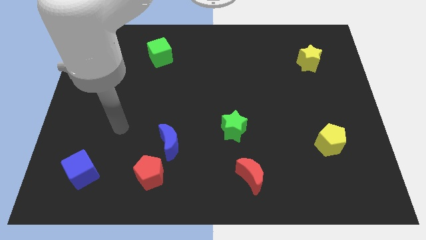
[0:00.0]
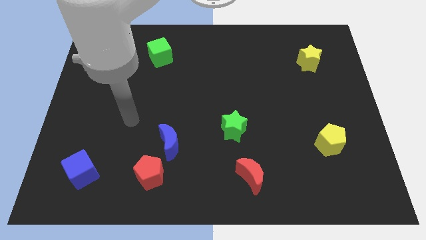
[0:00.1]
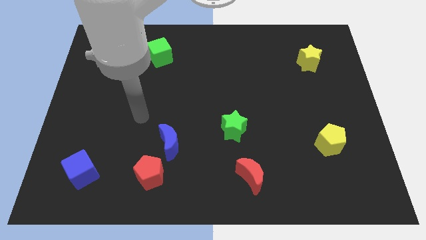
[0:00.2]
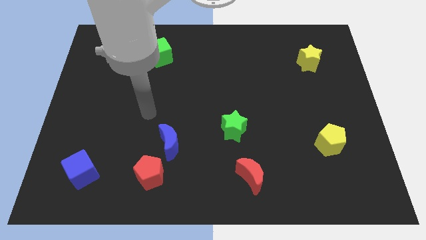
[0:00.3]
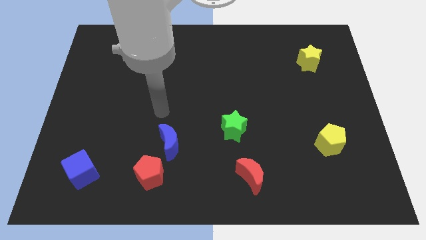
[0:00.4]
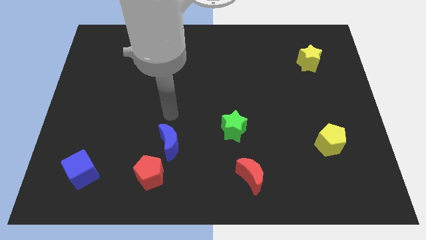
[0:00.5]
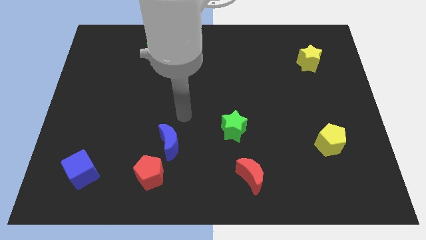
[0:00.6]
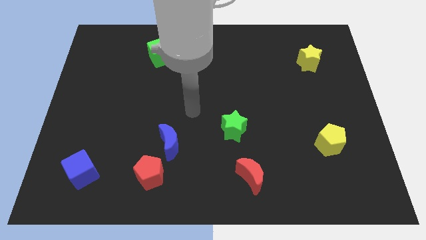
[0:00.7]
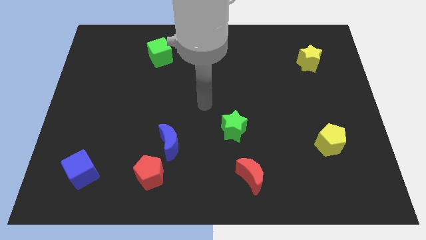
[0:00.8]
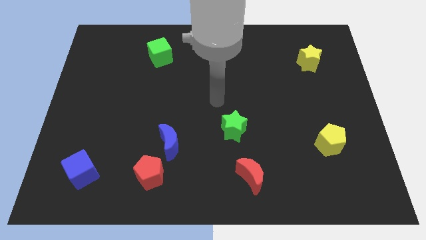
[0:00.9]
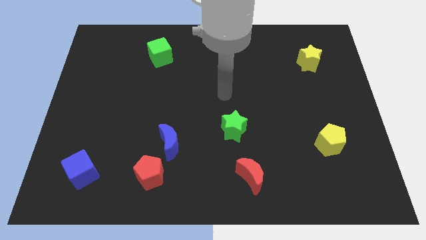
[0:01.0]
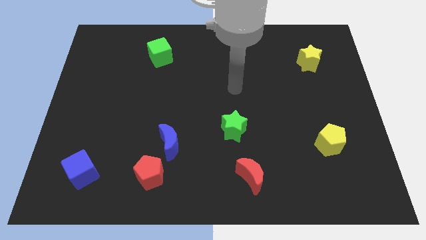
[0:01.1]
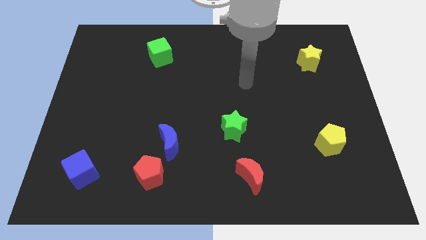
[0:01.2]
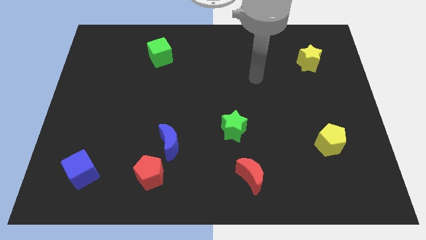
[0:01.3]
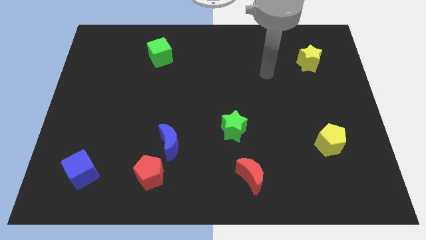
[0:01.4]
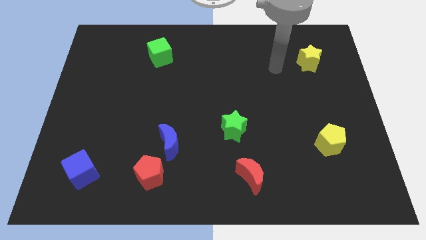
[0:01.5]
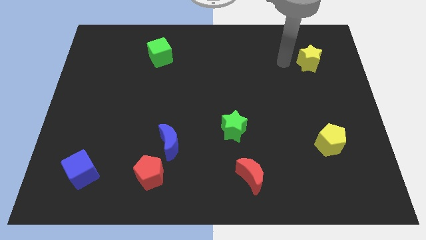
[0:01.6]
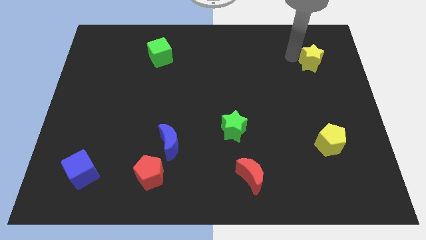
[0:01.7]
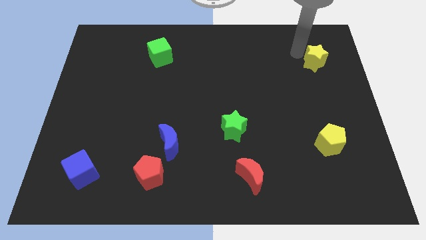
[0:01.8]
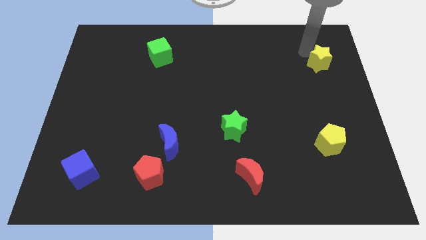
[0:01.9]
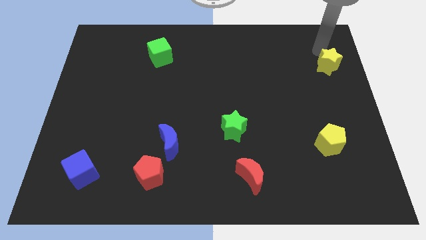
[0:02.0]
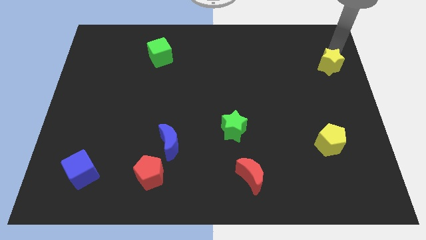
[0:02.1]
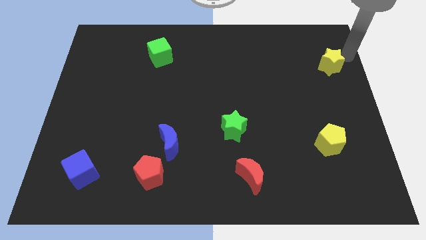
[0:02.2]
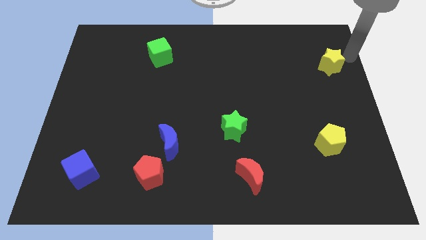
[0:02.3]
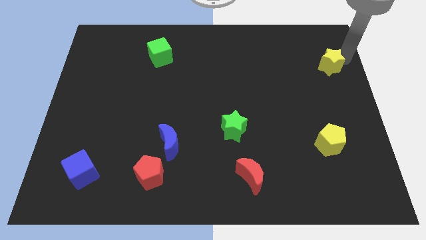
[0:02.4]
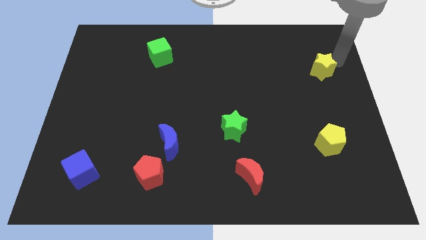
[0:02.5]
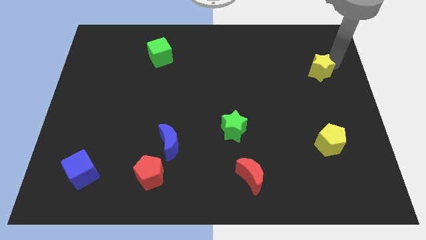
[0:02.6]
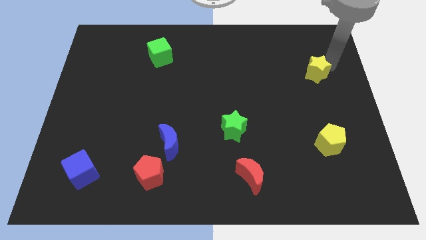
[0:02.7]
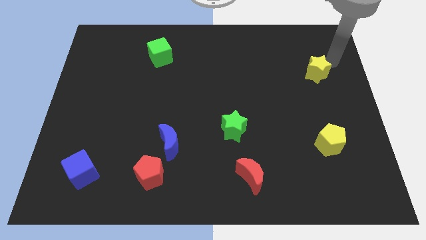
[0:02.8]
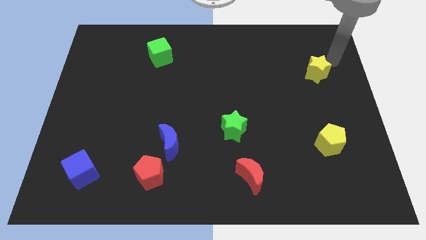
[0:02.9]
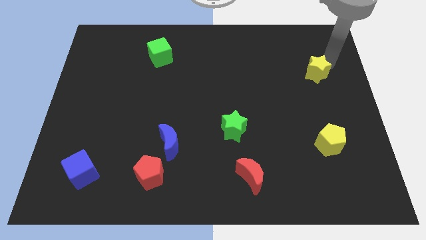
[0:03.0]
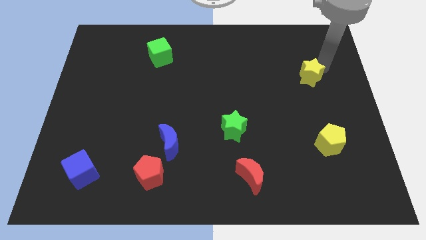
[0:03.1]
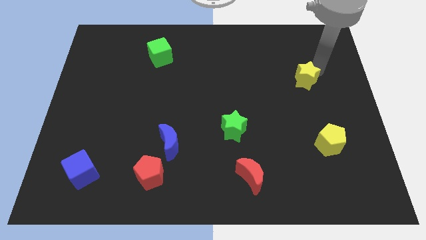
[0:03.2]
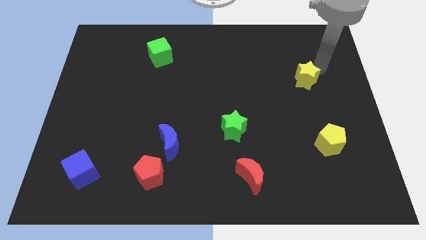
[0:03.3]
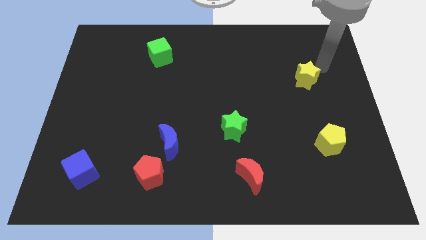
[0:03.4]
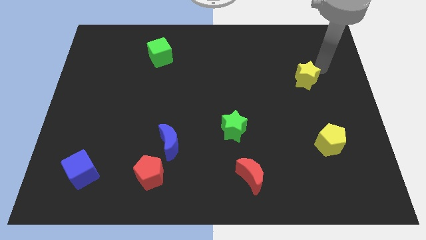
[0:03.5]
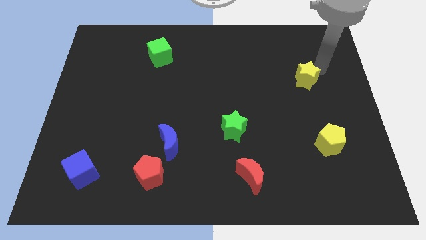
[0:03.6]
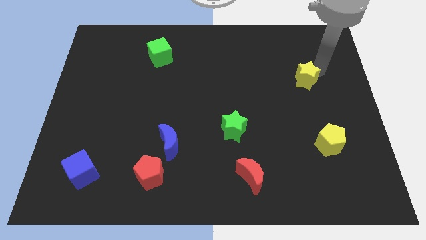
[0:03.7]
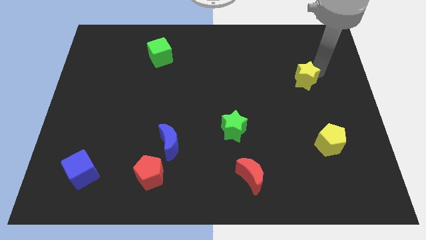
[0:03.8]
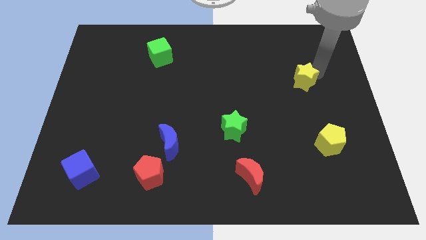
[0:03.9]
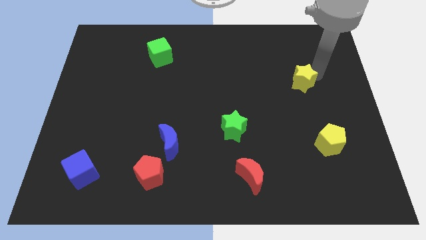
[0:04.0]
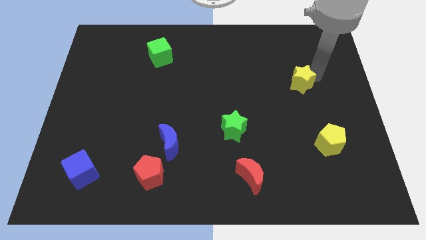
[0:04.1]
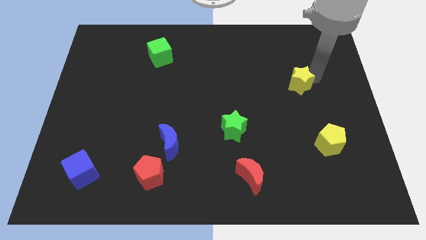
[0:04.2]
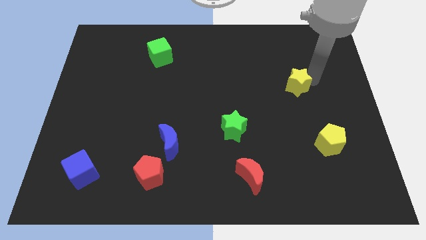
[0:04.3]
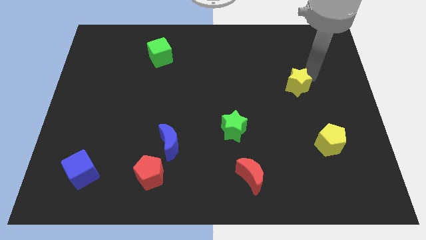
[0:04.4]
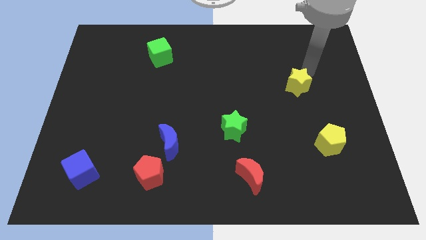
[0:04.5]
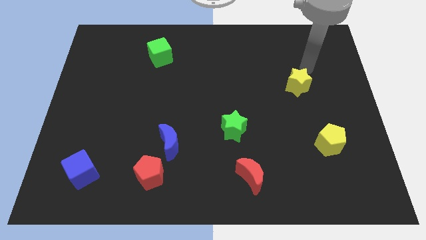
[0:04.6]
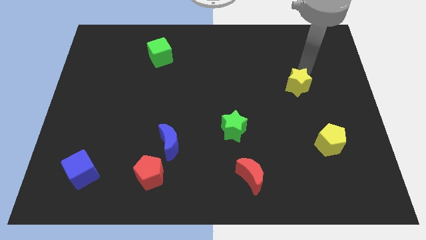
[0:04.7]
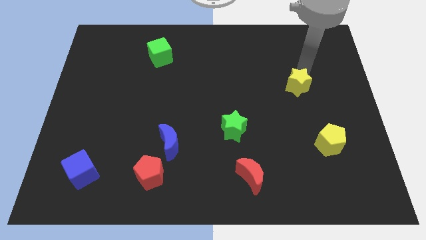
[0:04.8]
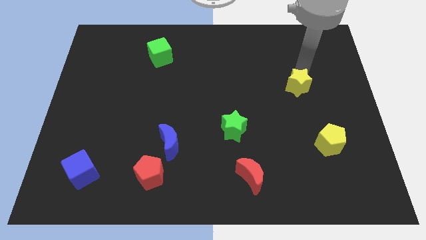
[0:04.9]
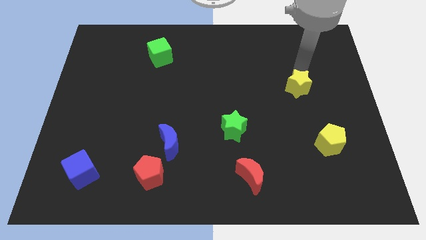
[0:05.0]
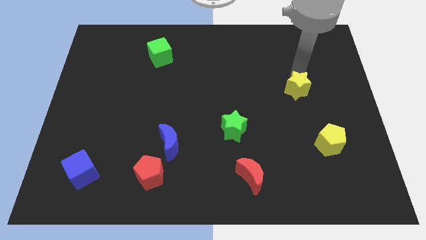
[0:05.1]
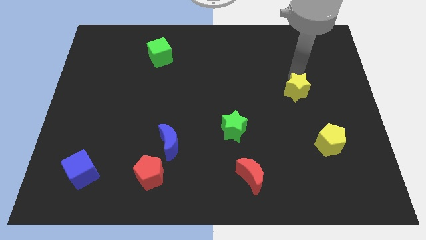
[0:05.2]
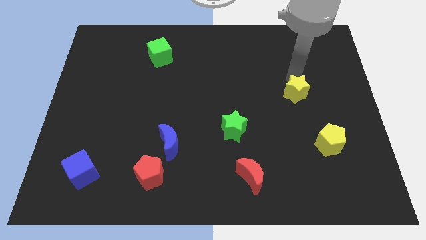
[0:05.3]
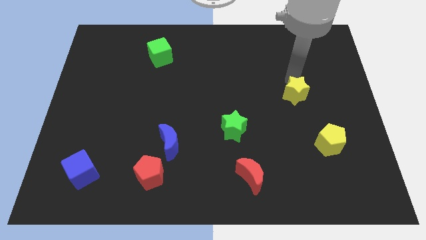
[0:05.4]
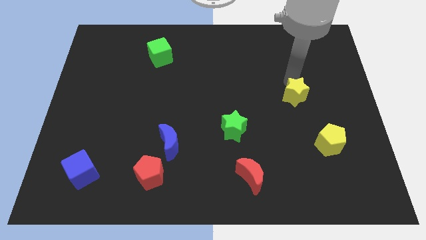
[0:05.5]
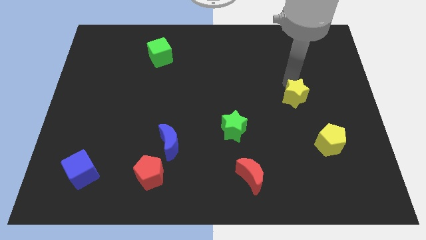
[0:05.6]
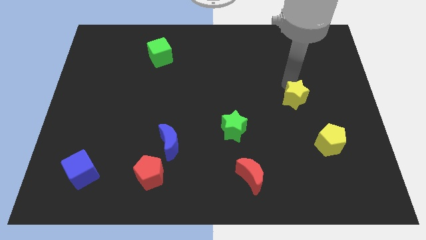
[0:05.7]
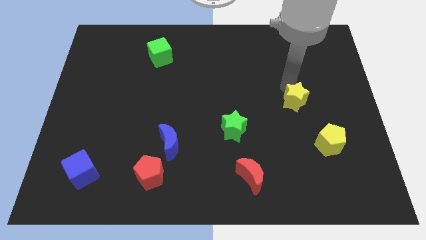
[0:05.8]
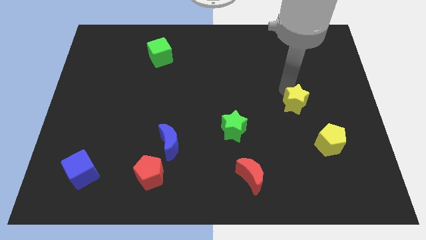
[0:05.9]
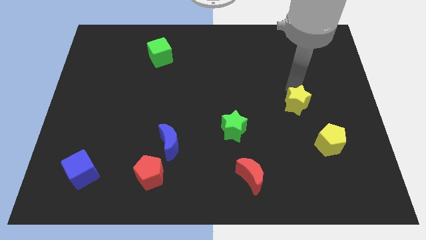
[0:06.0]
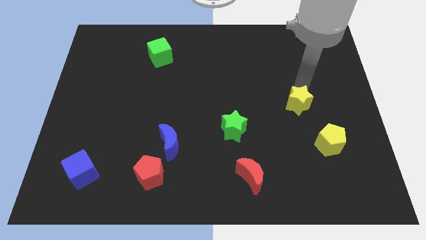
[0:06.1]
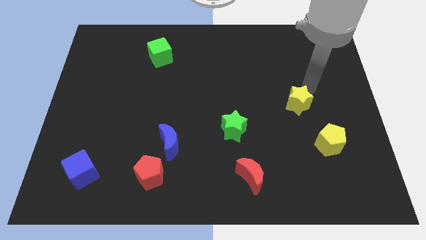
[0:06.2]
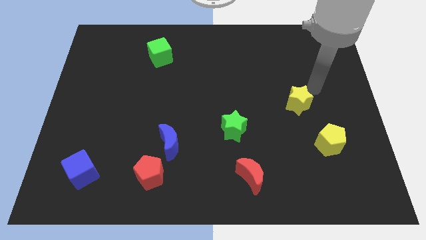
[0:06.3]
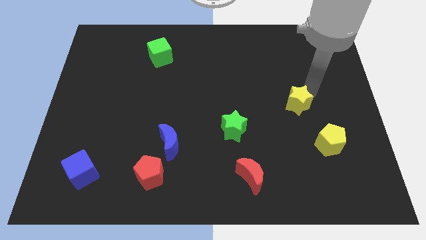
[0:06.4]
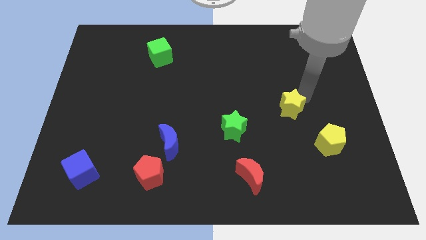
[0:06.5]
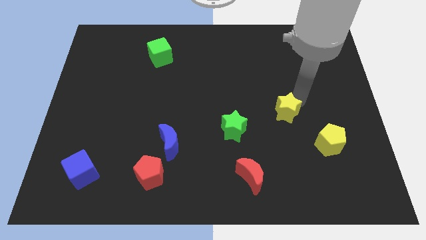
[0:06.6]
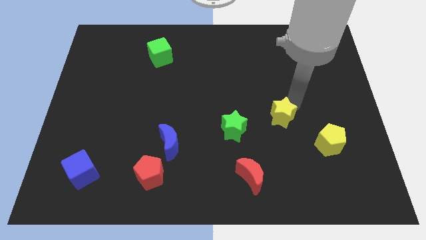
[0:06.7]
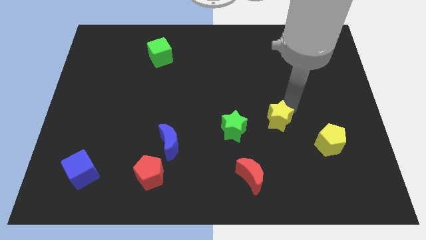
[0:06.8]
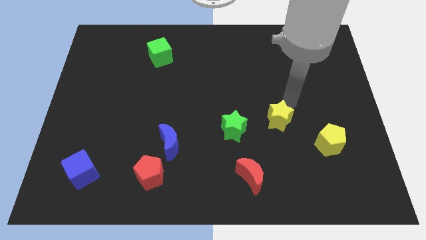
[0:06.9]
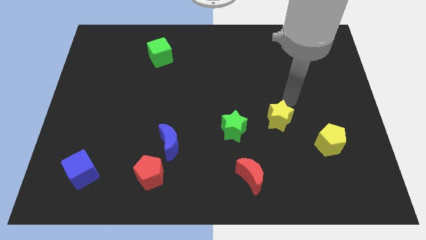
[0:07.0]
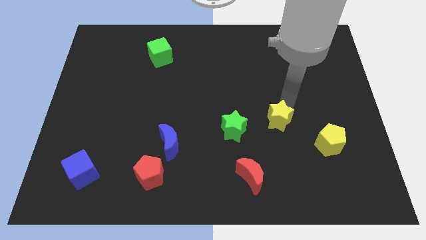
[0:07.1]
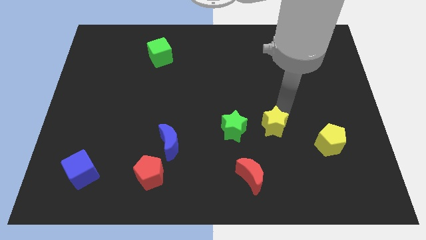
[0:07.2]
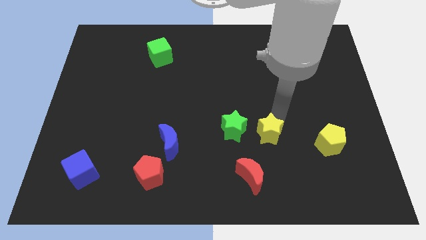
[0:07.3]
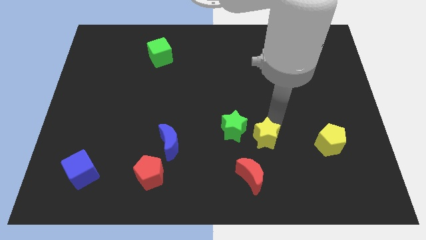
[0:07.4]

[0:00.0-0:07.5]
move the yellow star to the bottom right side of the green star
